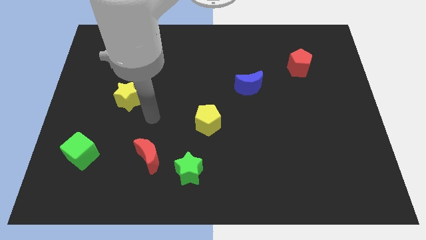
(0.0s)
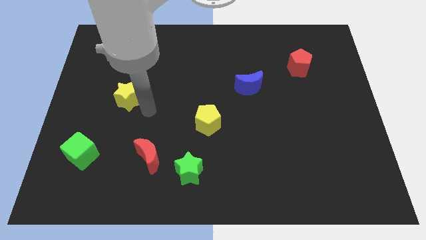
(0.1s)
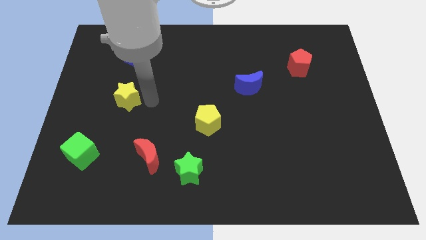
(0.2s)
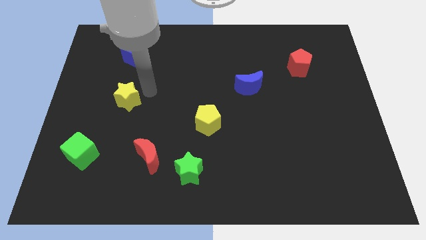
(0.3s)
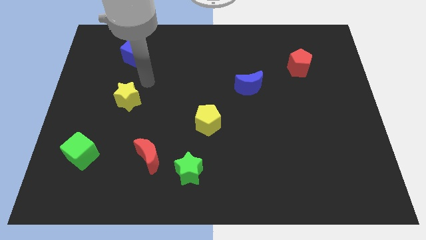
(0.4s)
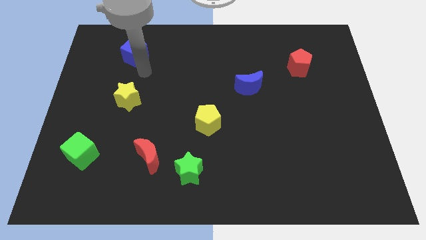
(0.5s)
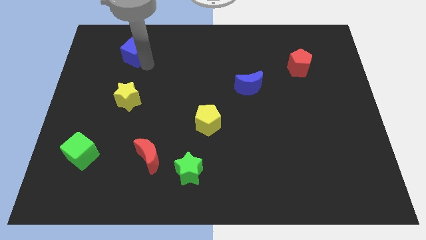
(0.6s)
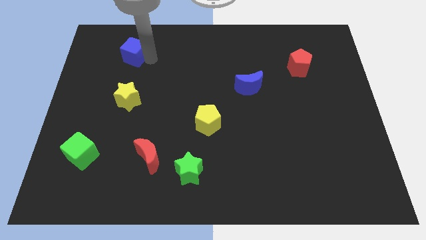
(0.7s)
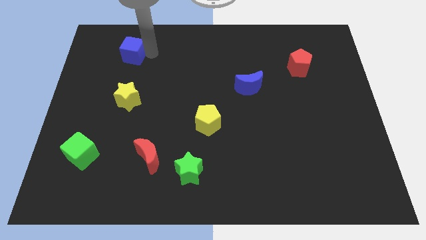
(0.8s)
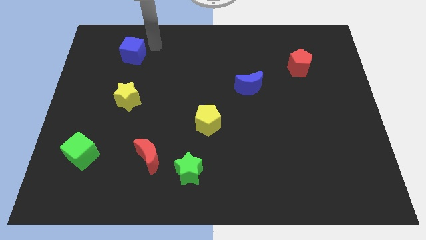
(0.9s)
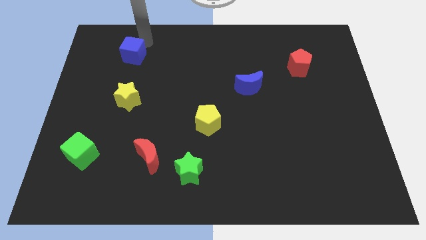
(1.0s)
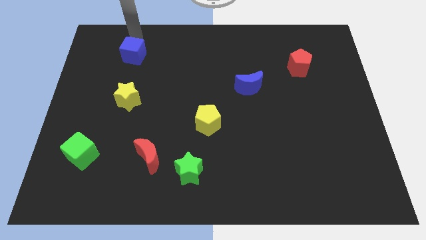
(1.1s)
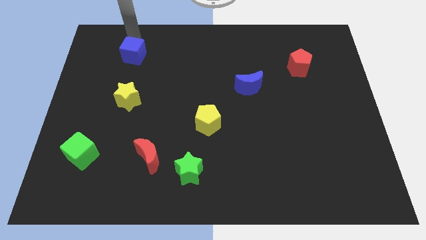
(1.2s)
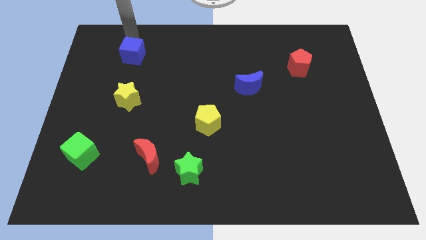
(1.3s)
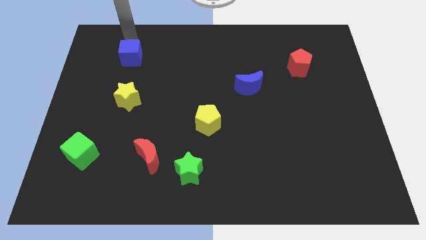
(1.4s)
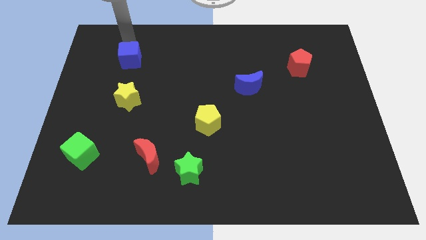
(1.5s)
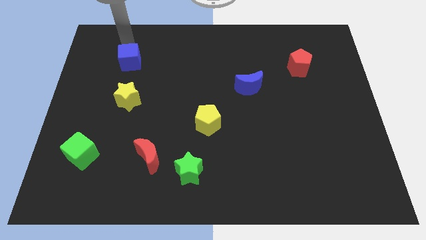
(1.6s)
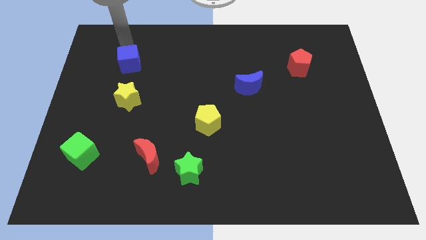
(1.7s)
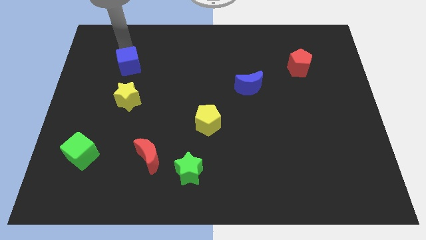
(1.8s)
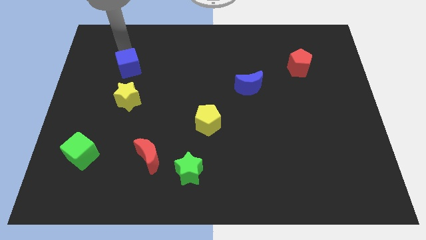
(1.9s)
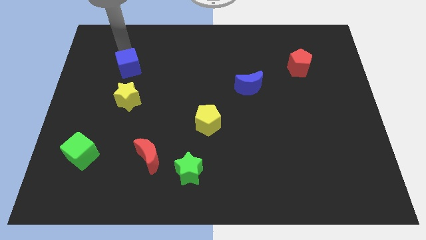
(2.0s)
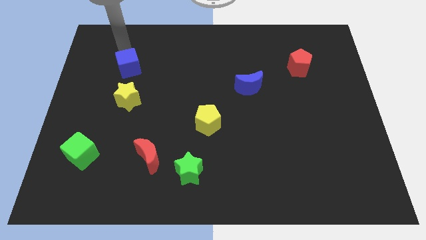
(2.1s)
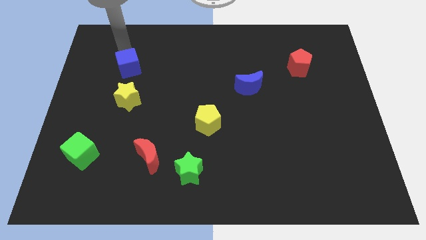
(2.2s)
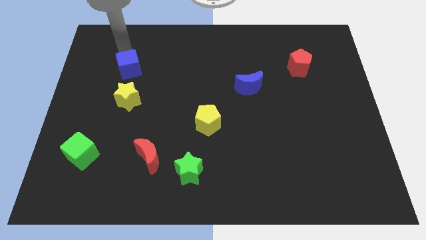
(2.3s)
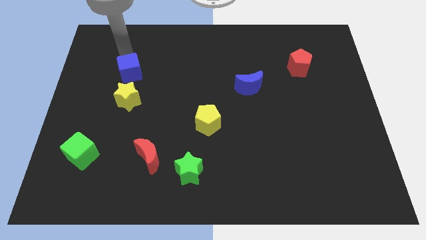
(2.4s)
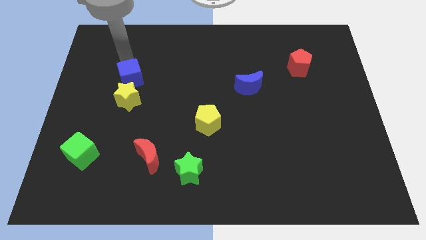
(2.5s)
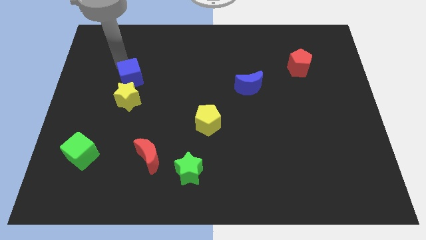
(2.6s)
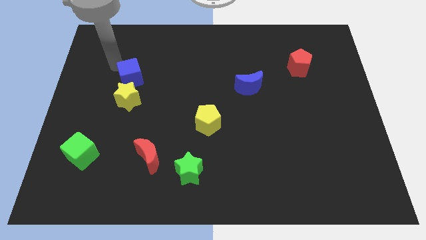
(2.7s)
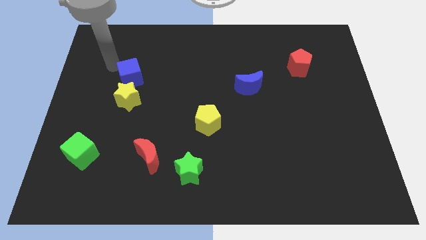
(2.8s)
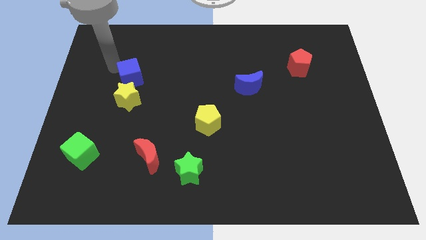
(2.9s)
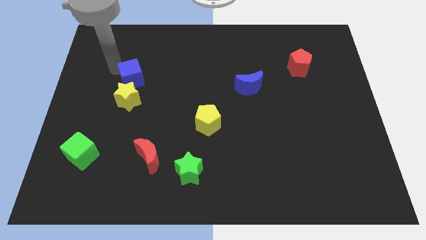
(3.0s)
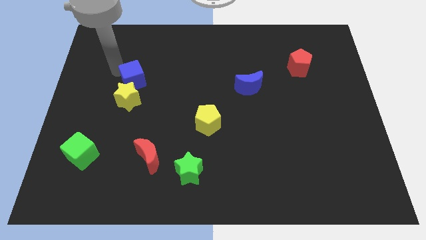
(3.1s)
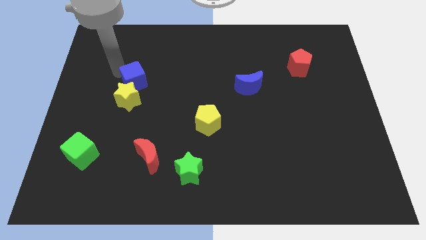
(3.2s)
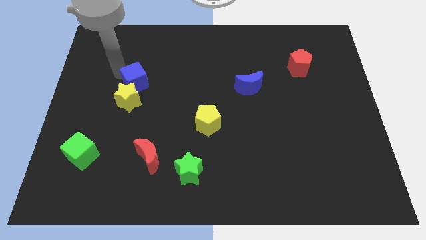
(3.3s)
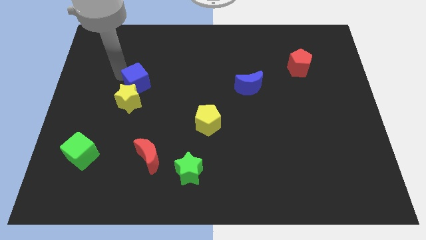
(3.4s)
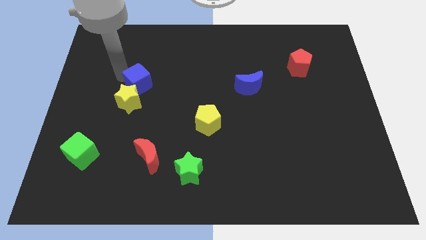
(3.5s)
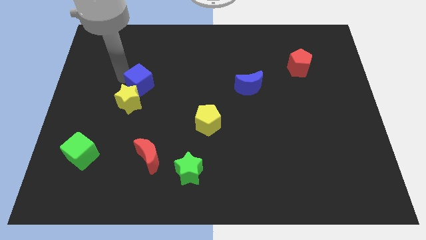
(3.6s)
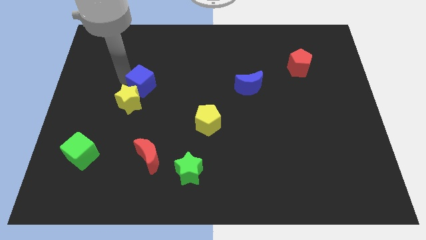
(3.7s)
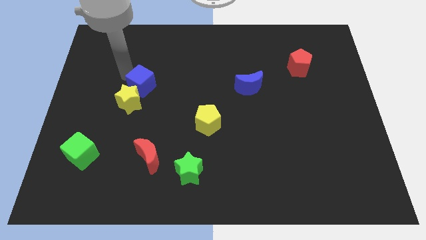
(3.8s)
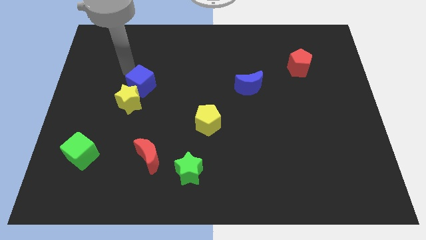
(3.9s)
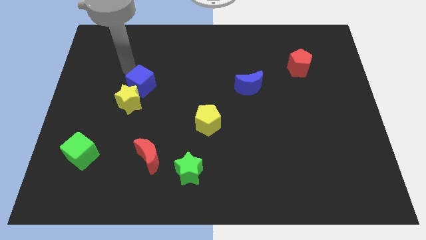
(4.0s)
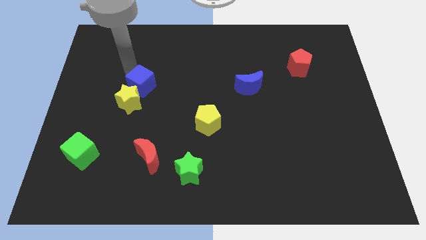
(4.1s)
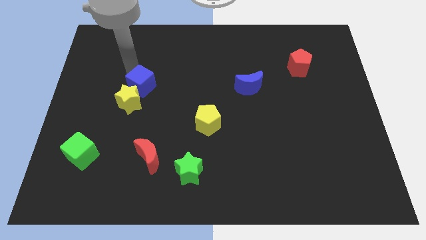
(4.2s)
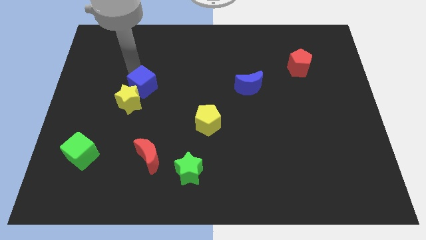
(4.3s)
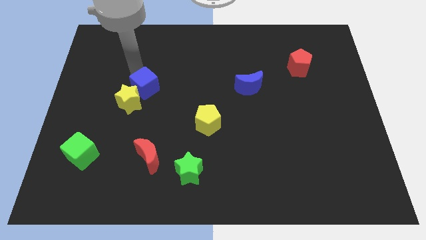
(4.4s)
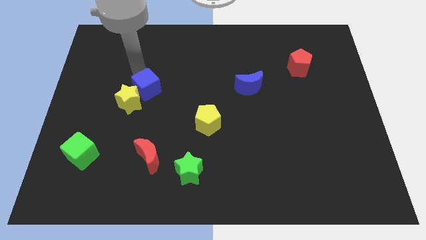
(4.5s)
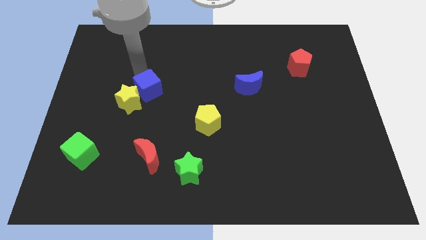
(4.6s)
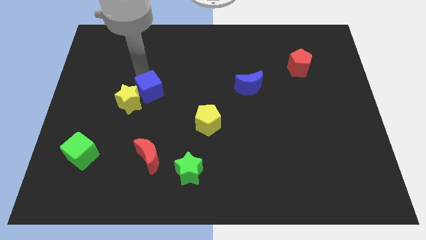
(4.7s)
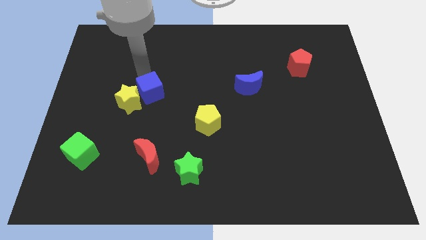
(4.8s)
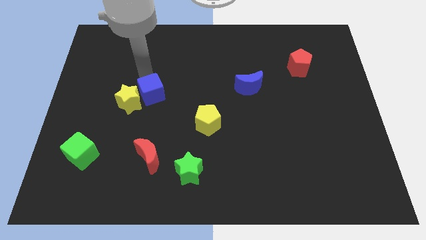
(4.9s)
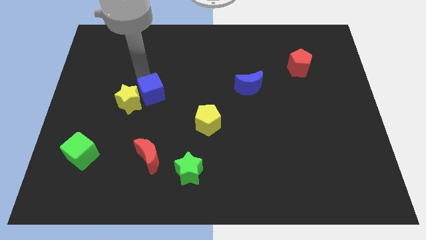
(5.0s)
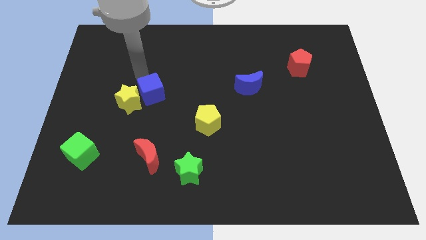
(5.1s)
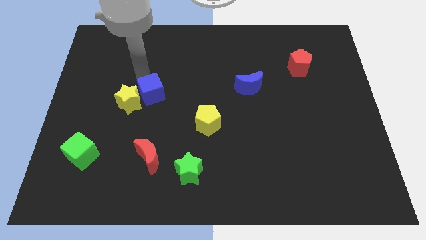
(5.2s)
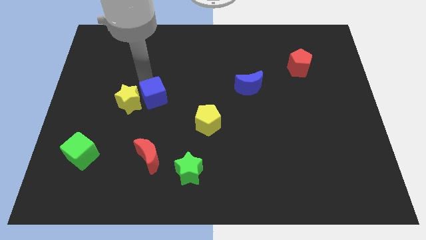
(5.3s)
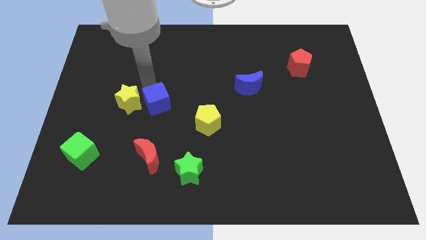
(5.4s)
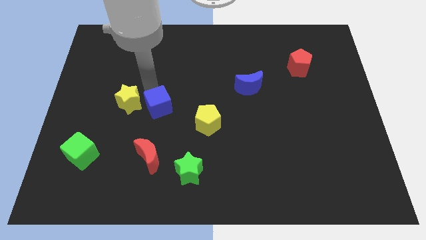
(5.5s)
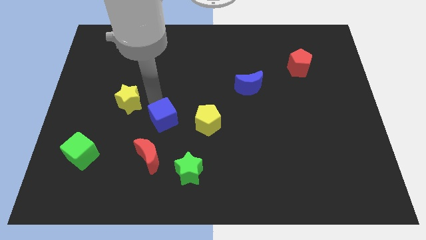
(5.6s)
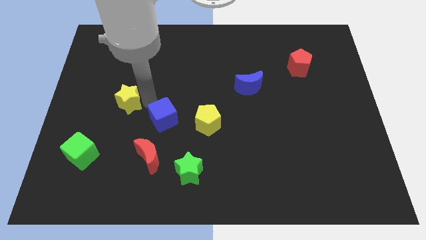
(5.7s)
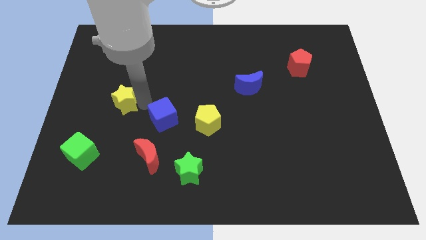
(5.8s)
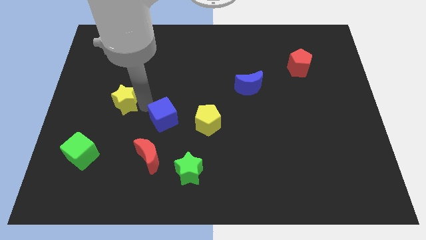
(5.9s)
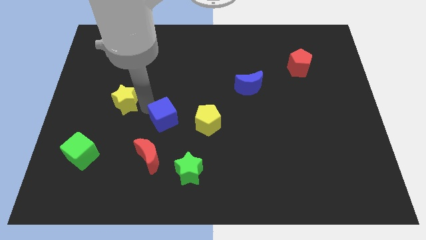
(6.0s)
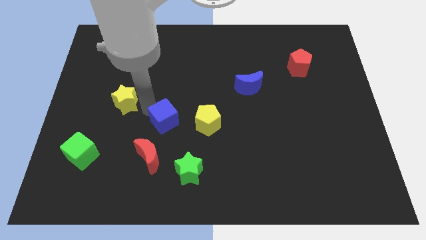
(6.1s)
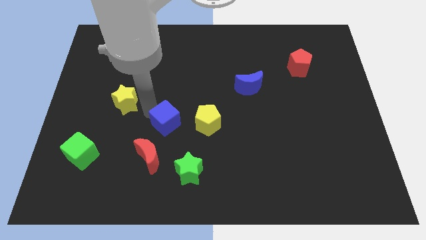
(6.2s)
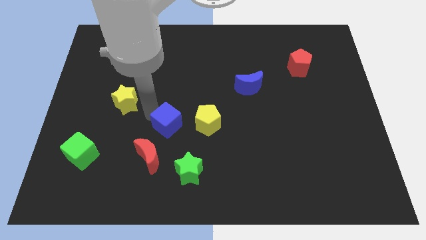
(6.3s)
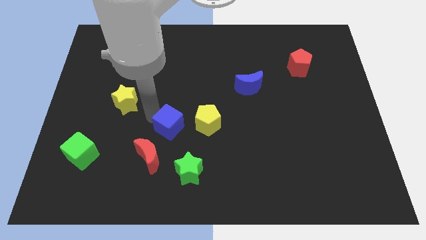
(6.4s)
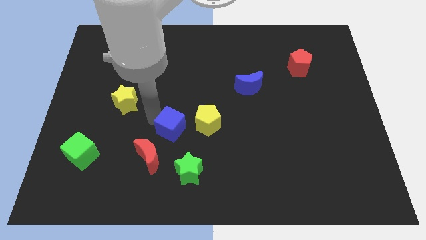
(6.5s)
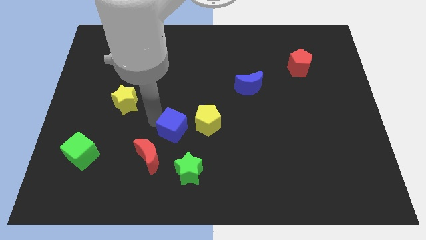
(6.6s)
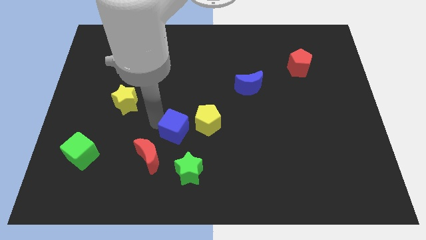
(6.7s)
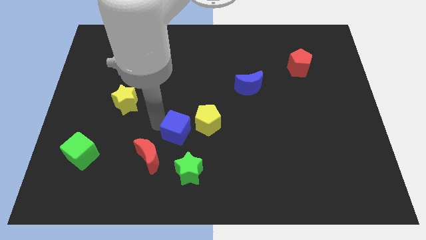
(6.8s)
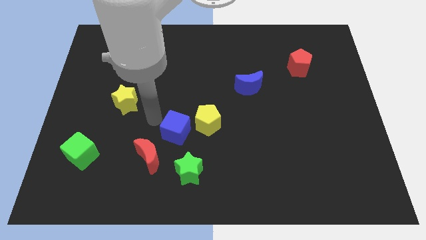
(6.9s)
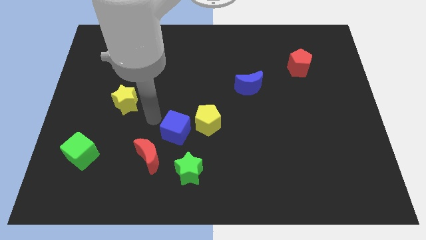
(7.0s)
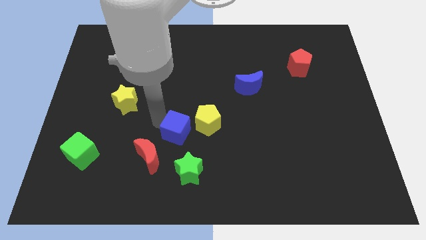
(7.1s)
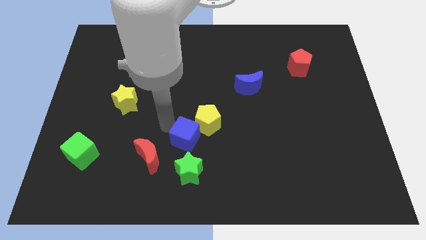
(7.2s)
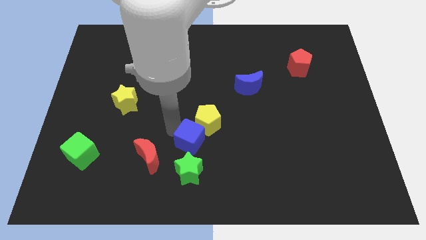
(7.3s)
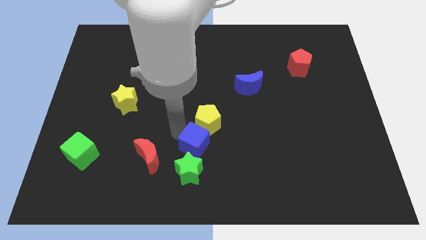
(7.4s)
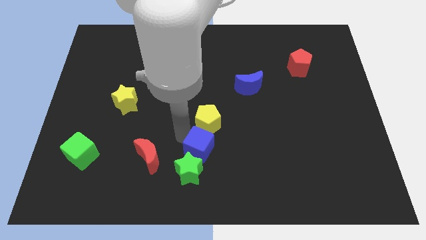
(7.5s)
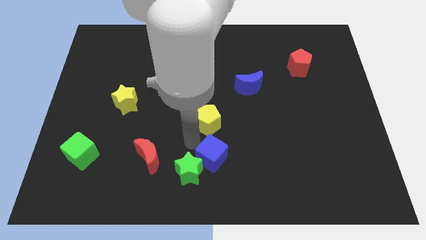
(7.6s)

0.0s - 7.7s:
put the blue cube right of the green star
